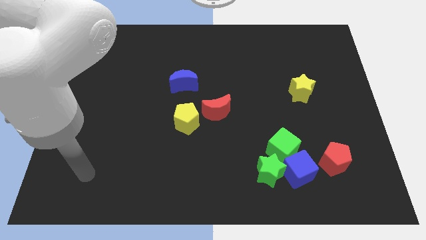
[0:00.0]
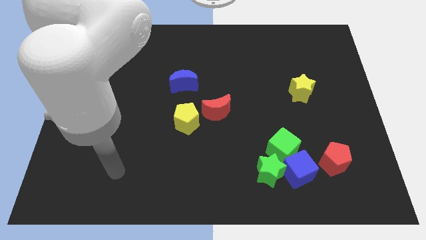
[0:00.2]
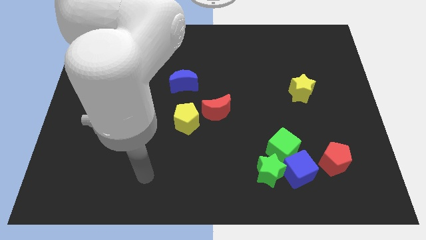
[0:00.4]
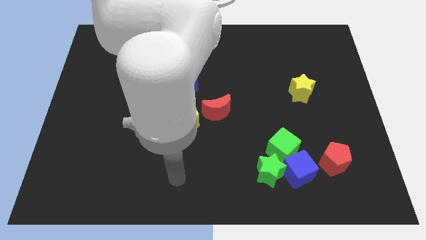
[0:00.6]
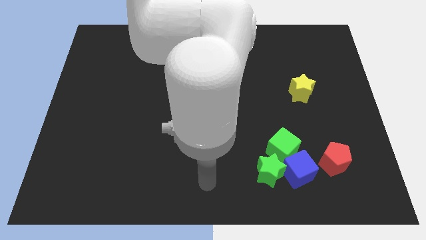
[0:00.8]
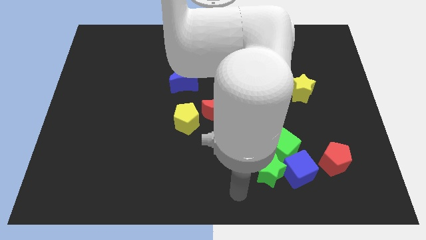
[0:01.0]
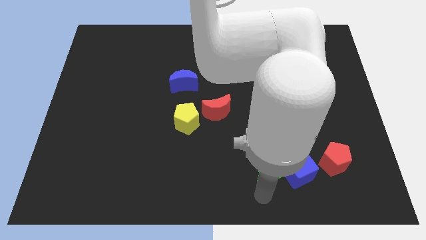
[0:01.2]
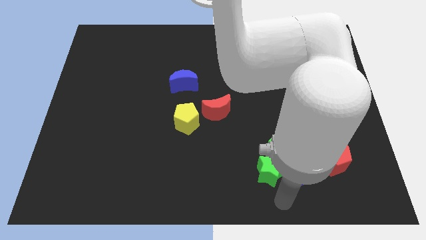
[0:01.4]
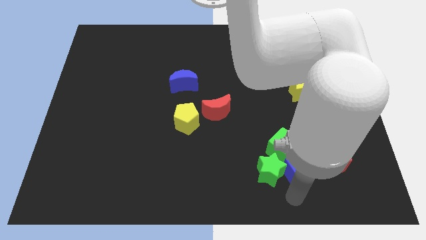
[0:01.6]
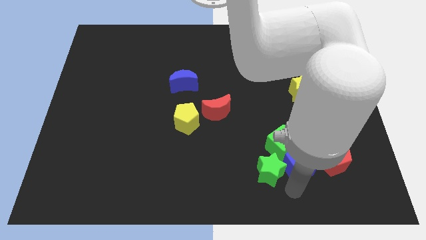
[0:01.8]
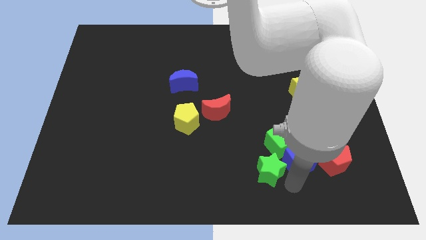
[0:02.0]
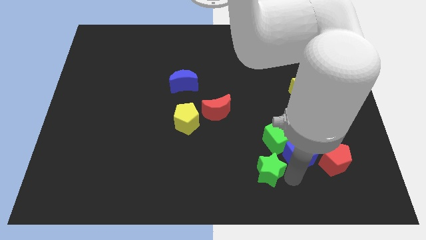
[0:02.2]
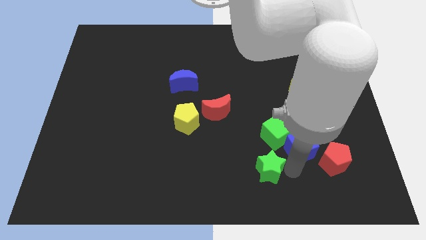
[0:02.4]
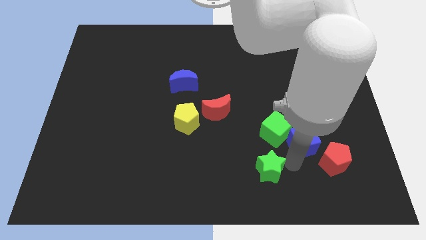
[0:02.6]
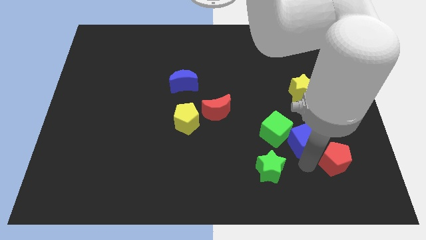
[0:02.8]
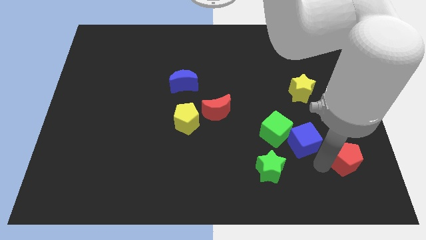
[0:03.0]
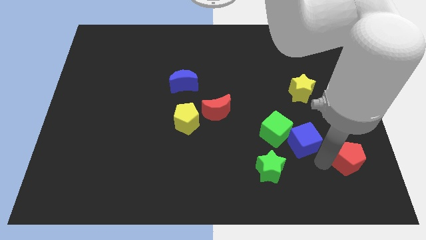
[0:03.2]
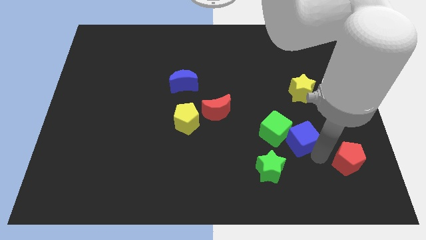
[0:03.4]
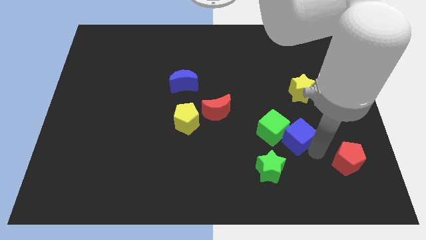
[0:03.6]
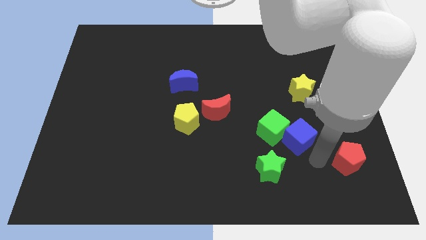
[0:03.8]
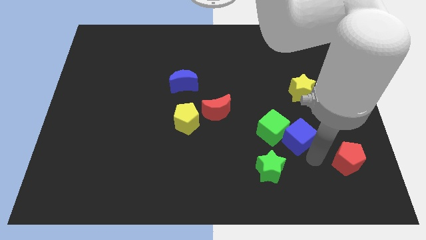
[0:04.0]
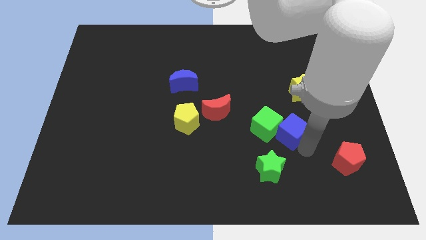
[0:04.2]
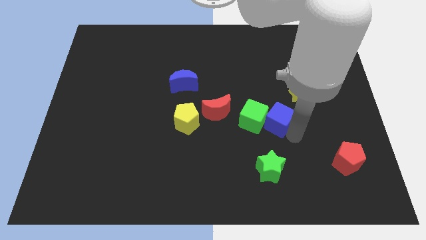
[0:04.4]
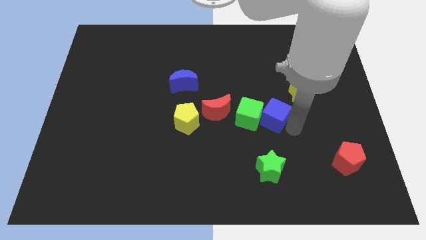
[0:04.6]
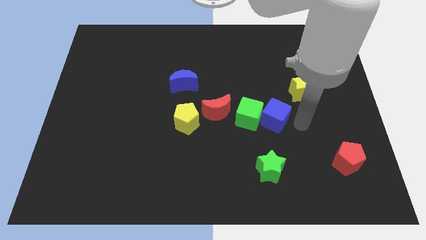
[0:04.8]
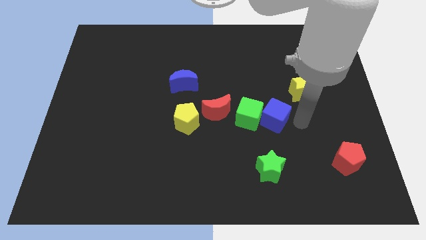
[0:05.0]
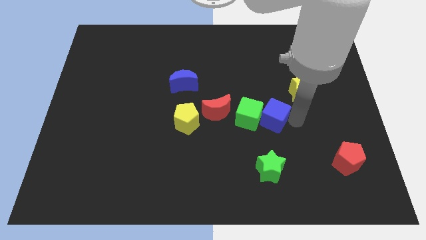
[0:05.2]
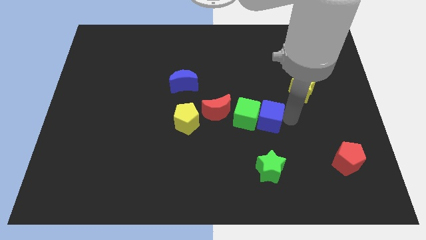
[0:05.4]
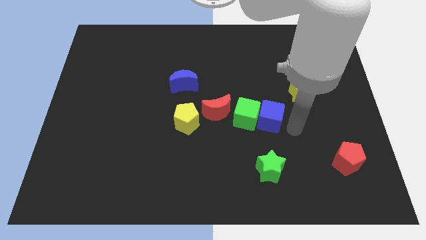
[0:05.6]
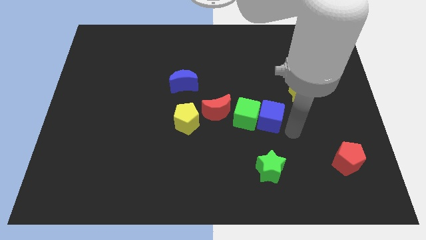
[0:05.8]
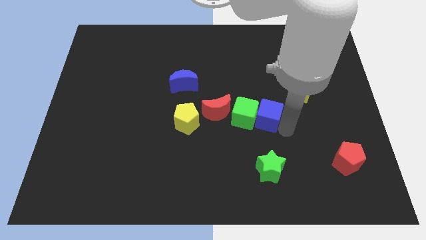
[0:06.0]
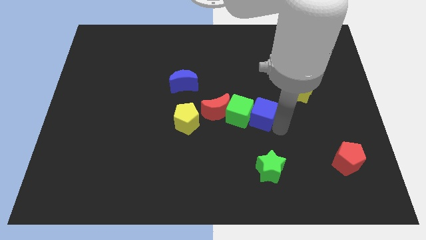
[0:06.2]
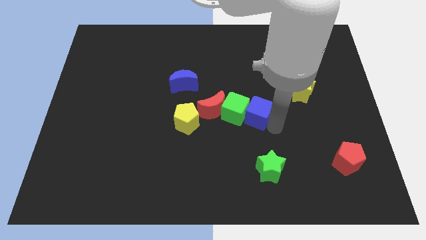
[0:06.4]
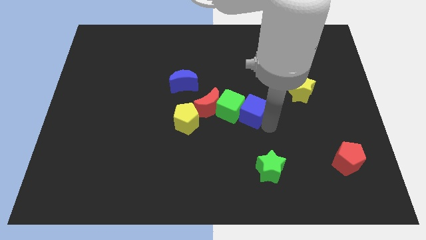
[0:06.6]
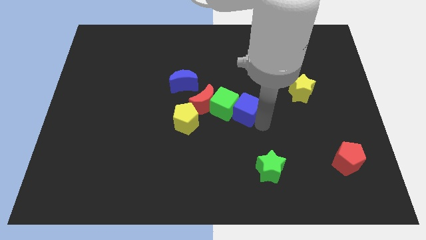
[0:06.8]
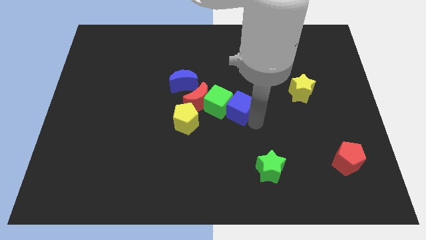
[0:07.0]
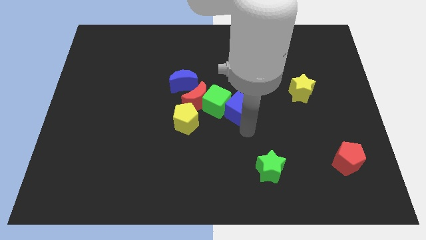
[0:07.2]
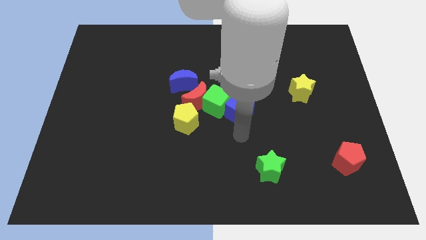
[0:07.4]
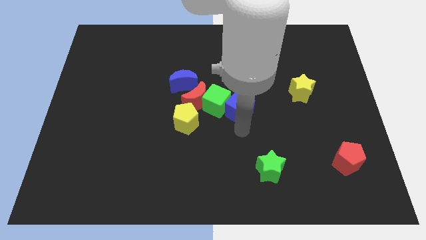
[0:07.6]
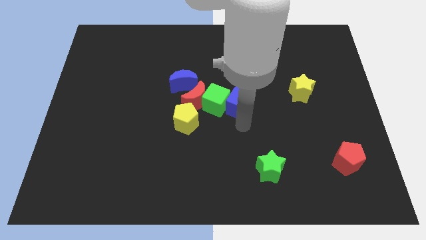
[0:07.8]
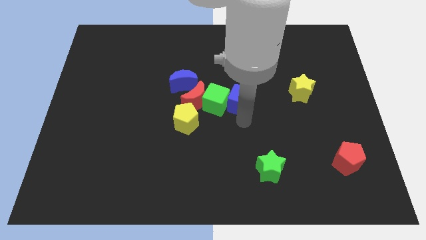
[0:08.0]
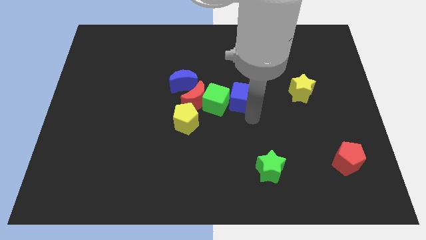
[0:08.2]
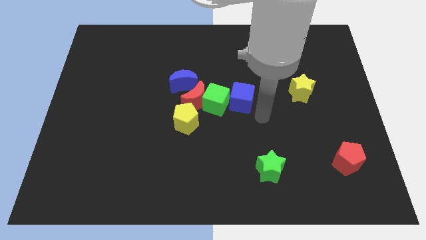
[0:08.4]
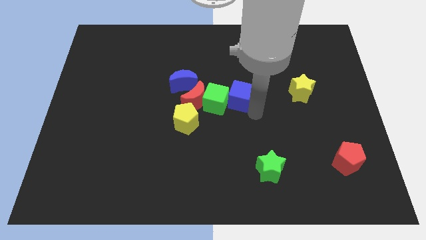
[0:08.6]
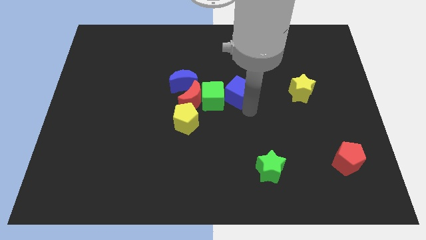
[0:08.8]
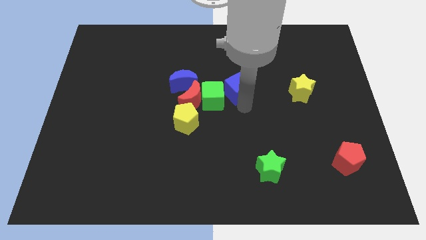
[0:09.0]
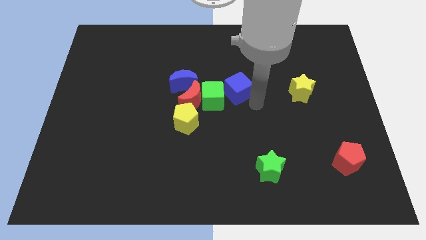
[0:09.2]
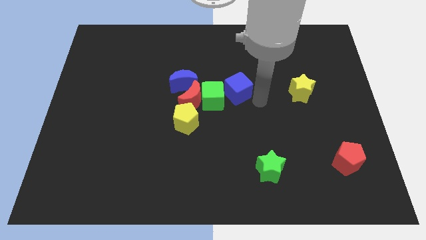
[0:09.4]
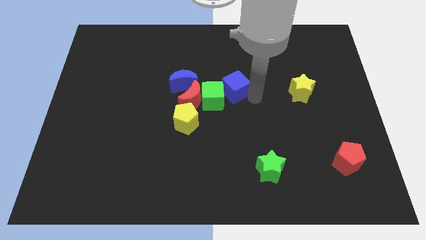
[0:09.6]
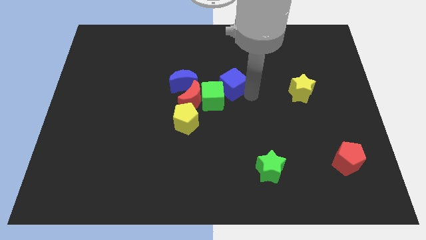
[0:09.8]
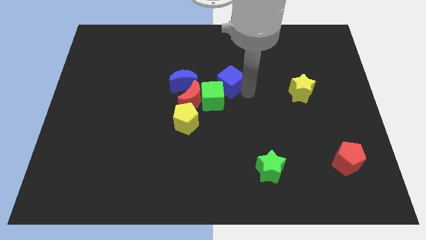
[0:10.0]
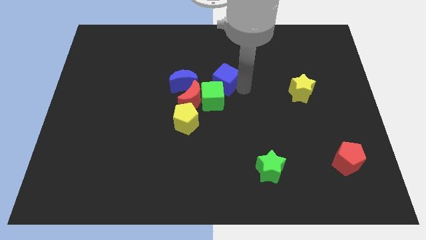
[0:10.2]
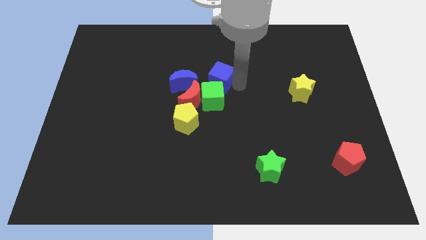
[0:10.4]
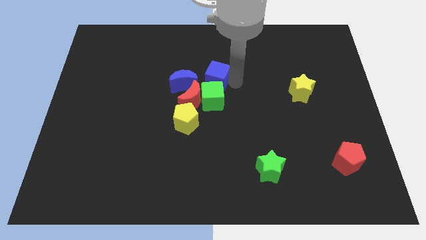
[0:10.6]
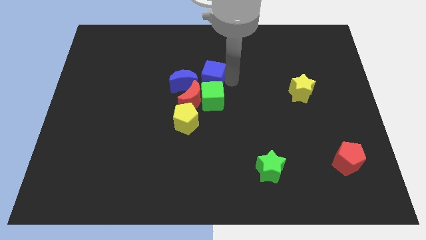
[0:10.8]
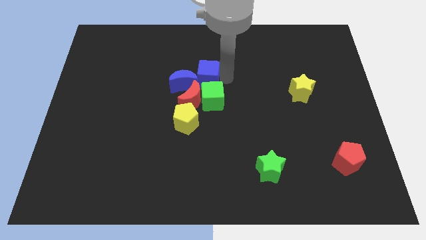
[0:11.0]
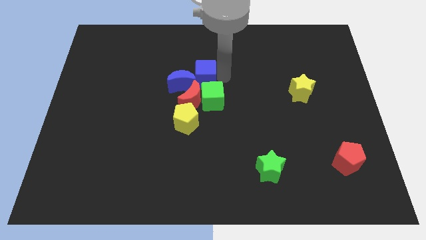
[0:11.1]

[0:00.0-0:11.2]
move the blue cube to the blue moon

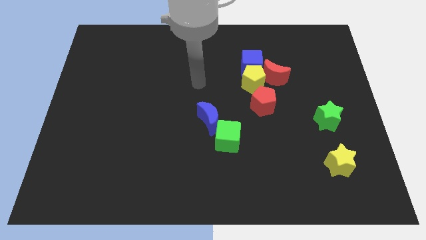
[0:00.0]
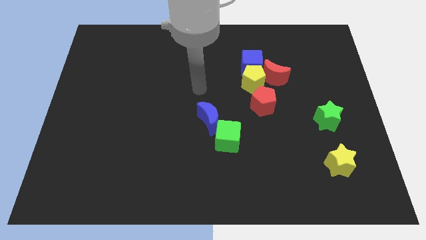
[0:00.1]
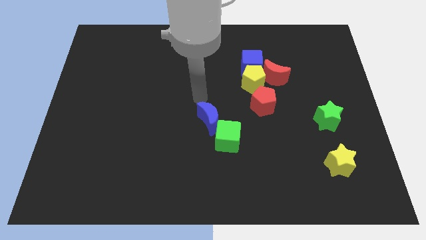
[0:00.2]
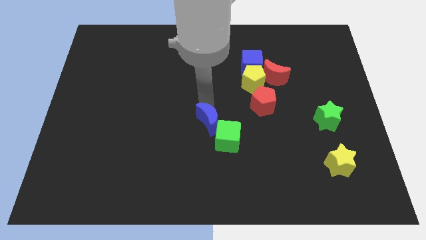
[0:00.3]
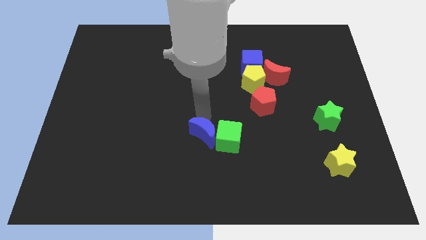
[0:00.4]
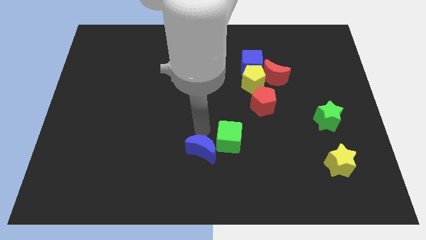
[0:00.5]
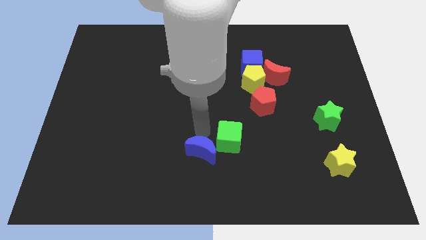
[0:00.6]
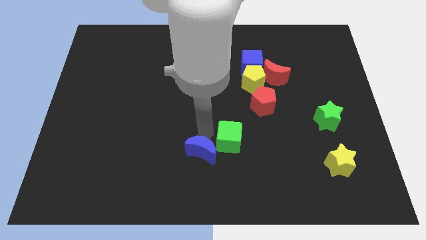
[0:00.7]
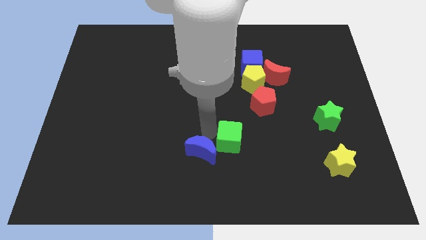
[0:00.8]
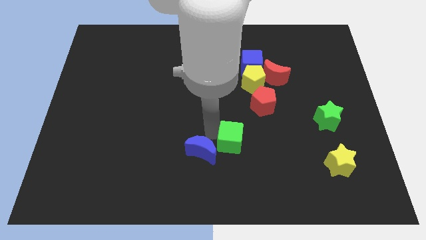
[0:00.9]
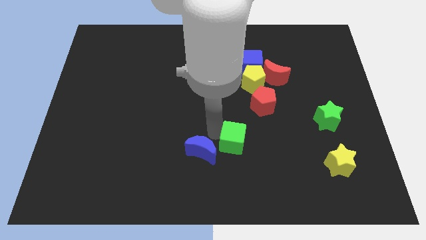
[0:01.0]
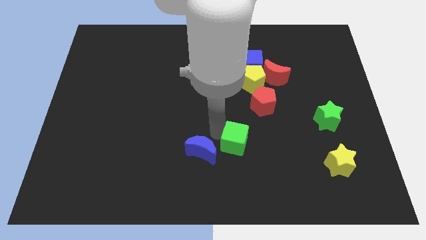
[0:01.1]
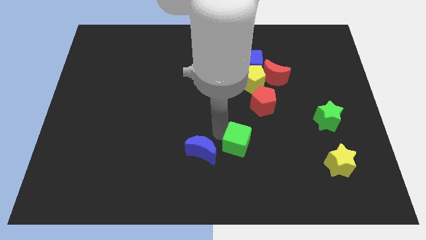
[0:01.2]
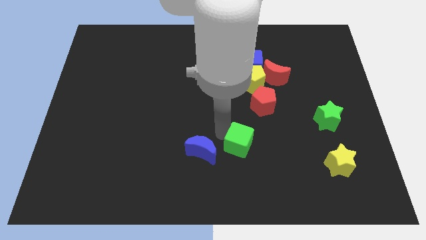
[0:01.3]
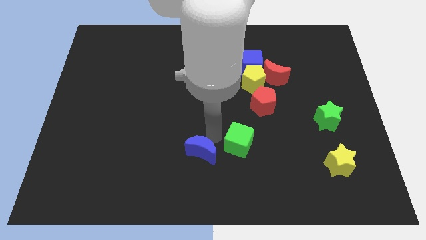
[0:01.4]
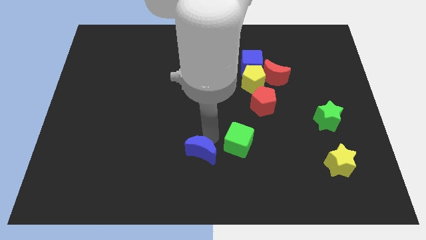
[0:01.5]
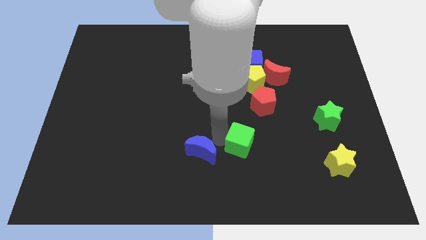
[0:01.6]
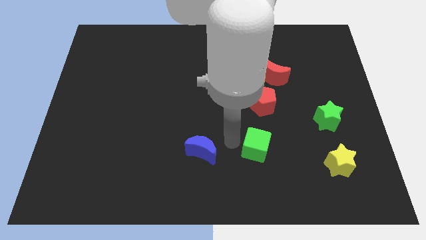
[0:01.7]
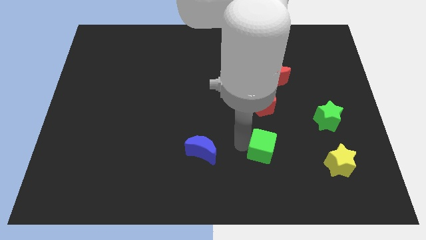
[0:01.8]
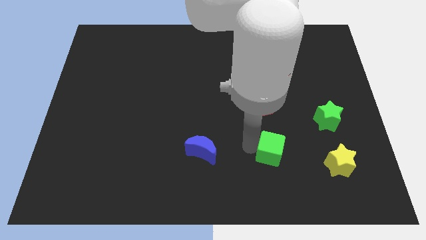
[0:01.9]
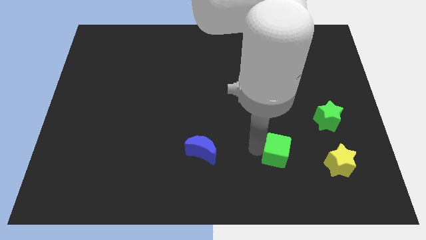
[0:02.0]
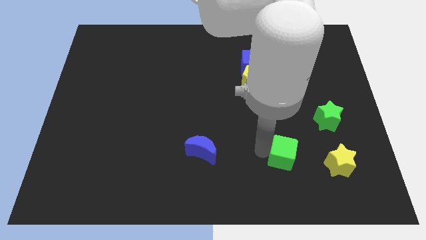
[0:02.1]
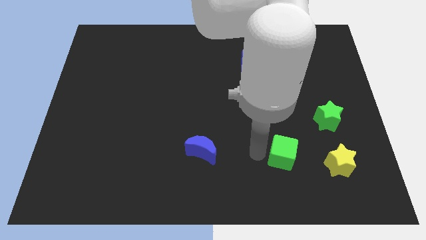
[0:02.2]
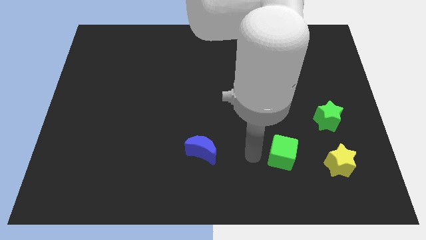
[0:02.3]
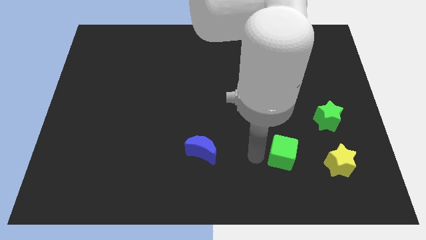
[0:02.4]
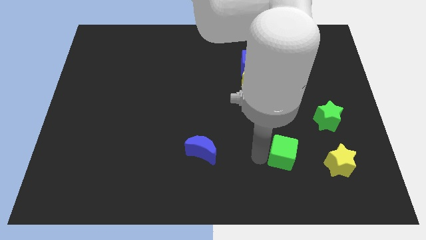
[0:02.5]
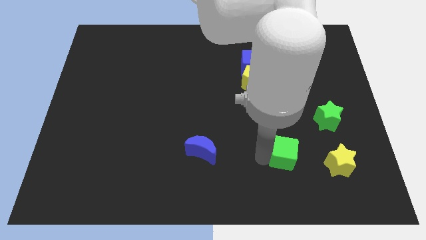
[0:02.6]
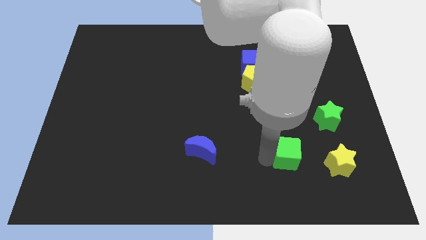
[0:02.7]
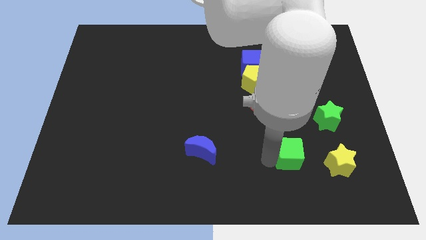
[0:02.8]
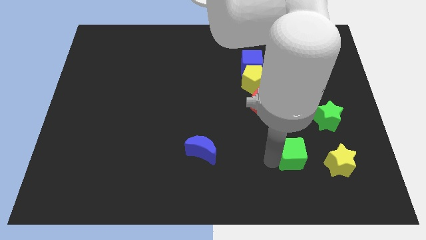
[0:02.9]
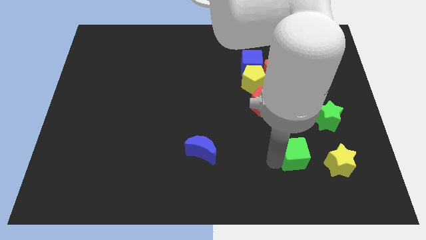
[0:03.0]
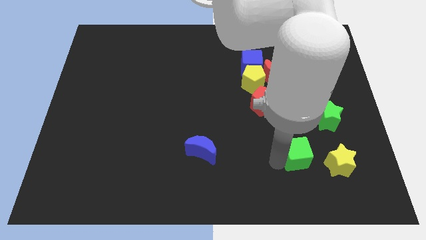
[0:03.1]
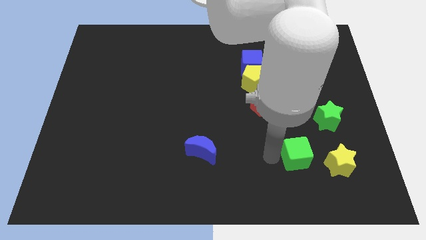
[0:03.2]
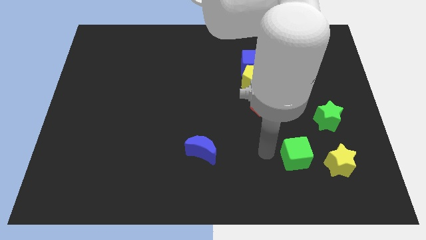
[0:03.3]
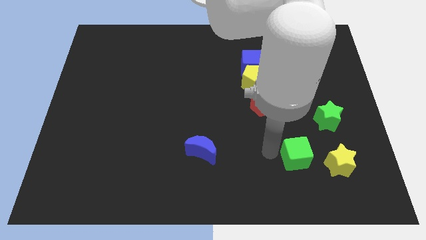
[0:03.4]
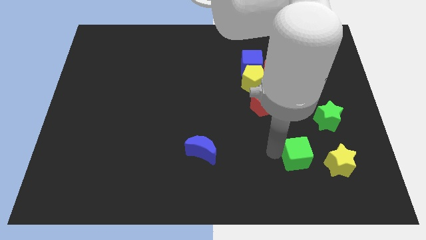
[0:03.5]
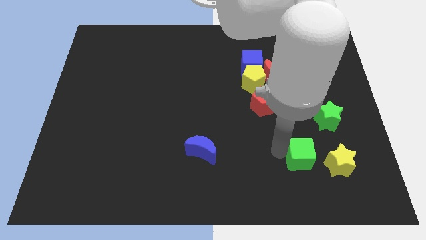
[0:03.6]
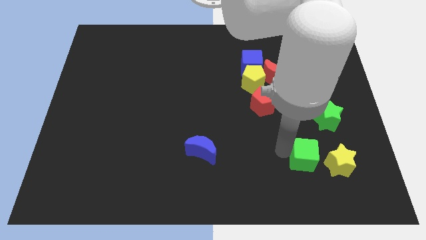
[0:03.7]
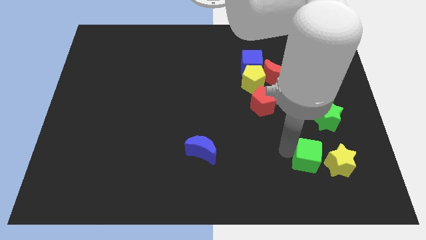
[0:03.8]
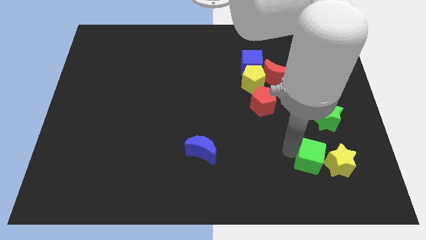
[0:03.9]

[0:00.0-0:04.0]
push the green cube next to the yellow star
